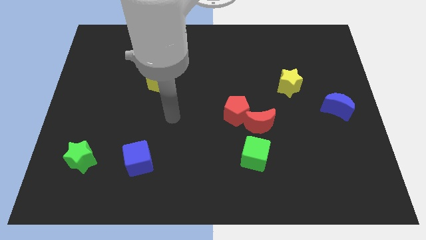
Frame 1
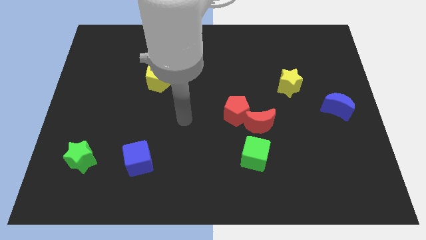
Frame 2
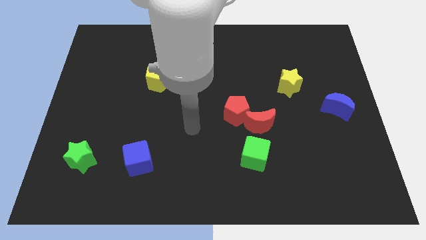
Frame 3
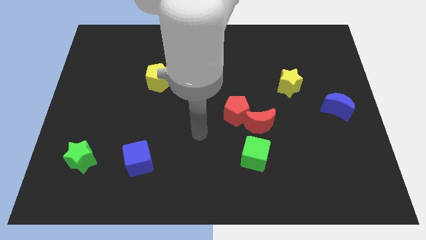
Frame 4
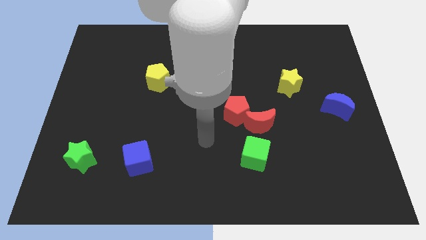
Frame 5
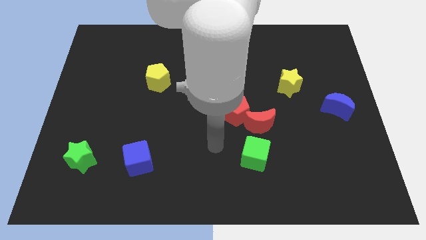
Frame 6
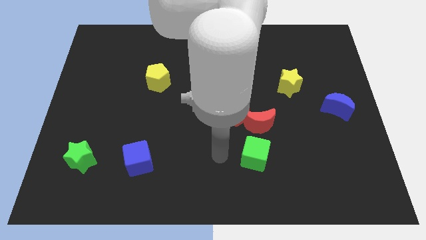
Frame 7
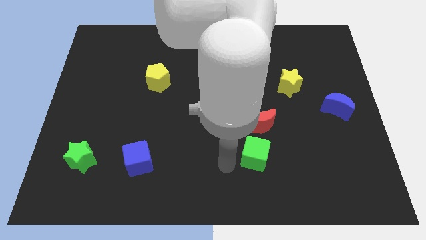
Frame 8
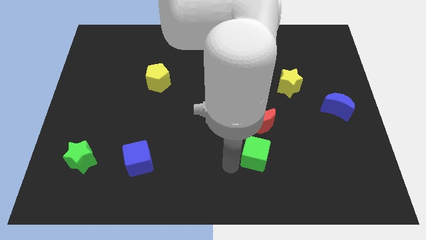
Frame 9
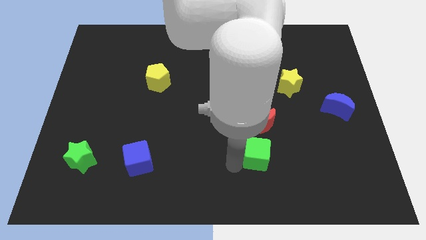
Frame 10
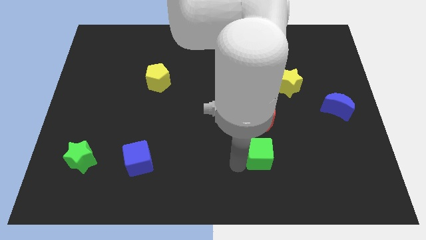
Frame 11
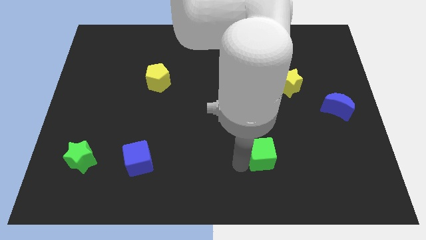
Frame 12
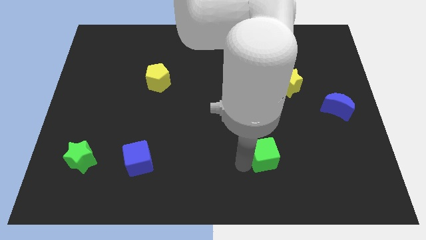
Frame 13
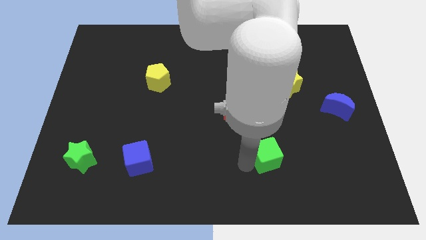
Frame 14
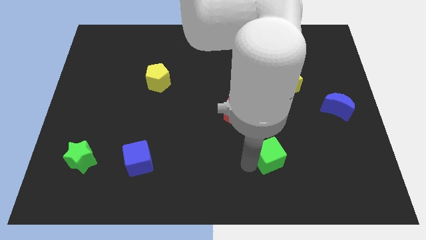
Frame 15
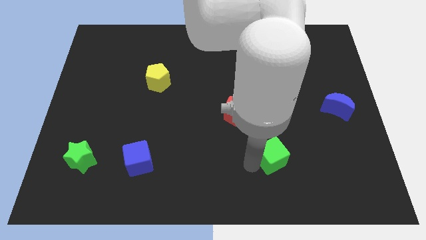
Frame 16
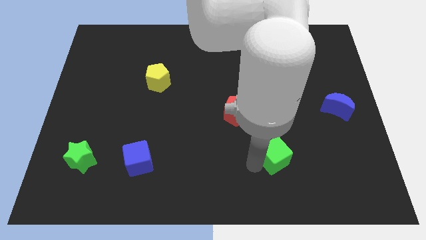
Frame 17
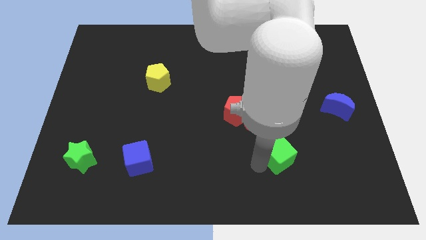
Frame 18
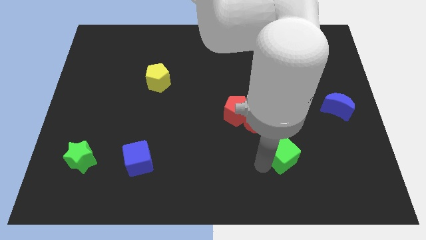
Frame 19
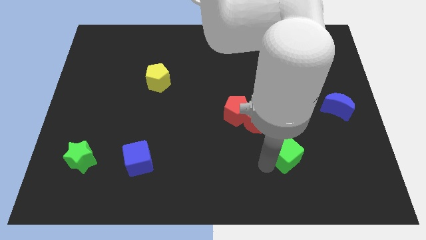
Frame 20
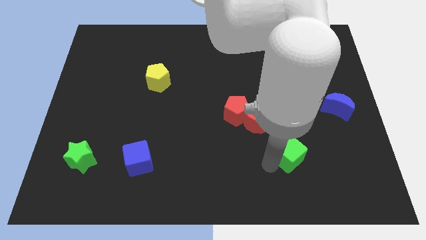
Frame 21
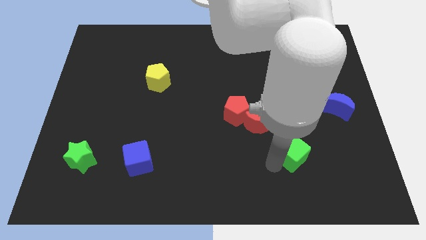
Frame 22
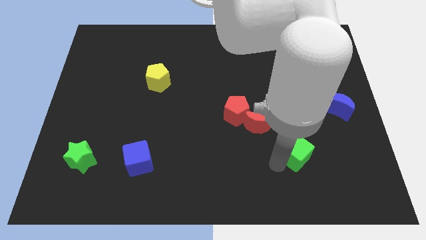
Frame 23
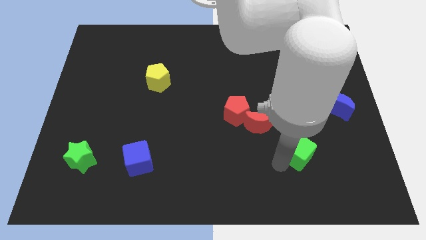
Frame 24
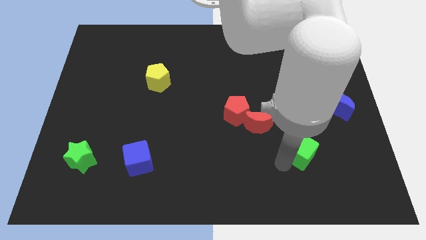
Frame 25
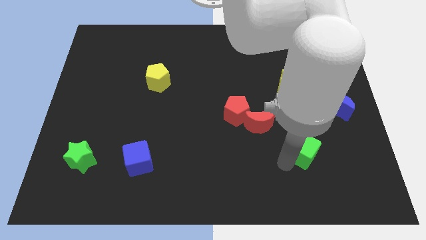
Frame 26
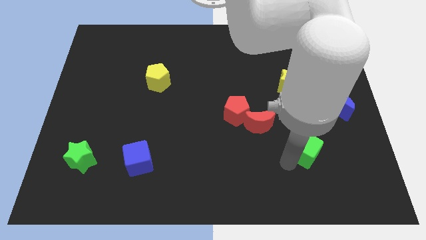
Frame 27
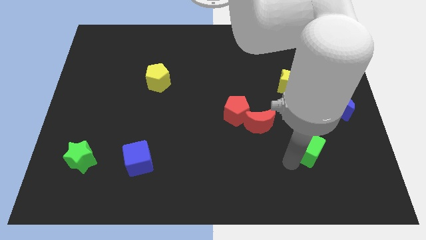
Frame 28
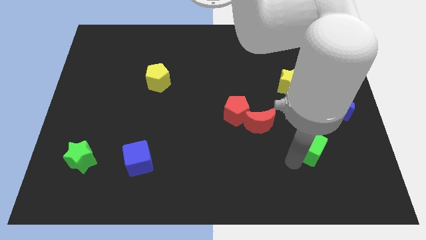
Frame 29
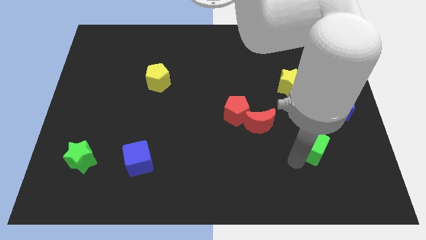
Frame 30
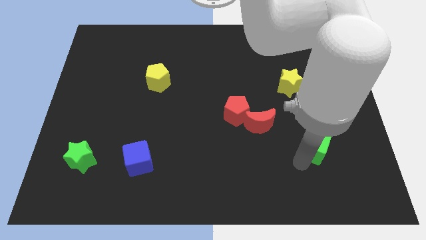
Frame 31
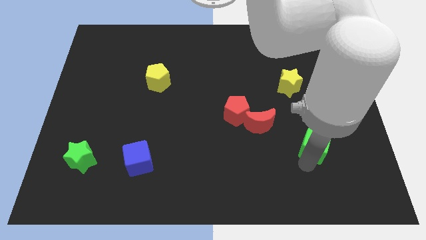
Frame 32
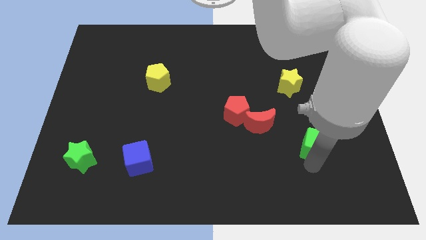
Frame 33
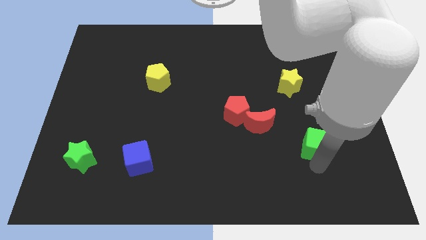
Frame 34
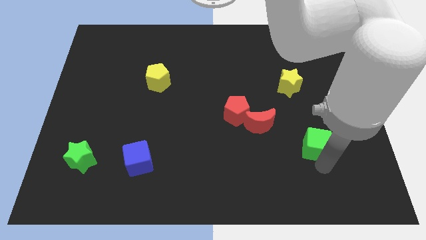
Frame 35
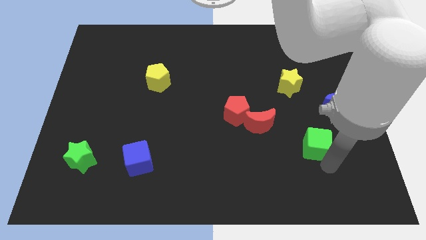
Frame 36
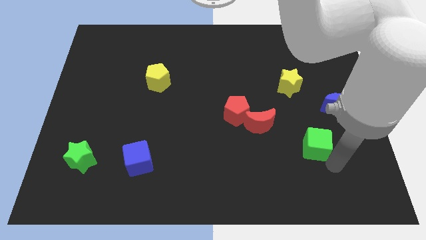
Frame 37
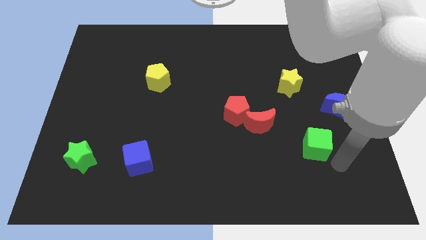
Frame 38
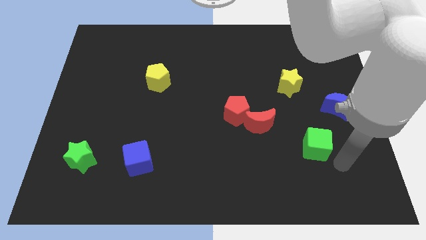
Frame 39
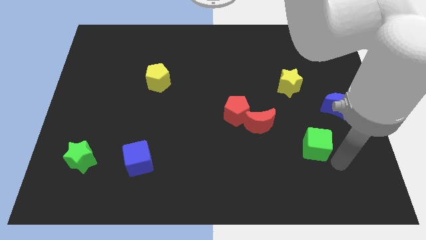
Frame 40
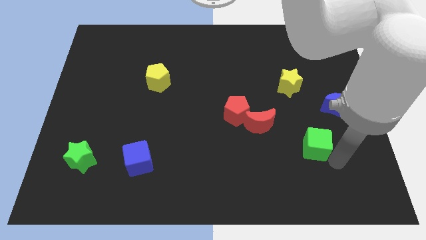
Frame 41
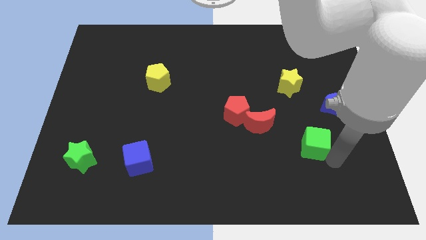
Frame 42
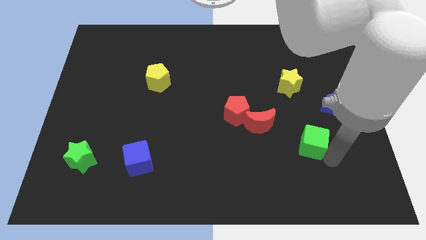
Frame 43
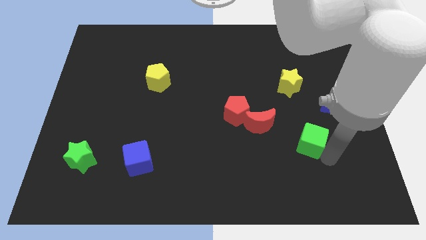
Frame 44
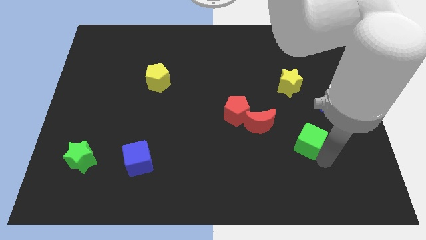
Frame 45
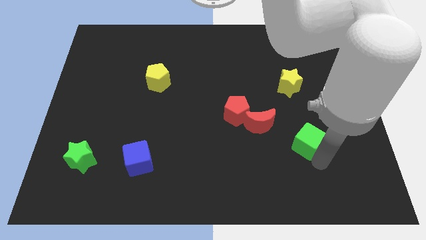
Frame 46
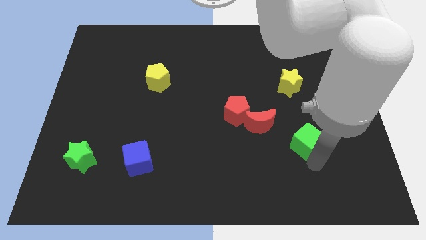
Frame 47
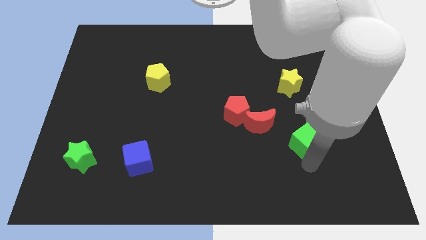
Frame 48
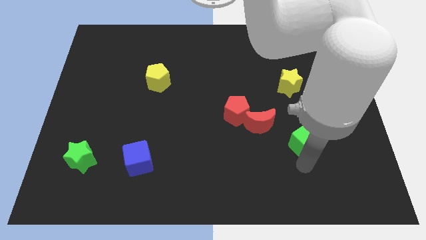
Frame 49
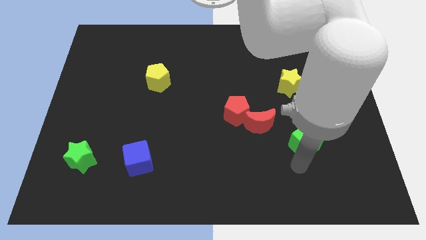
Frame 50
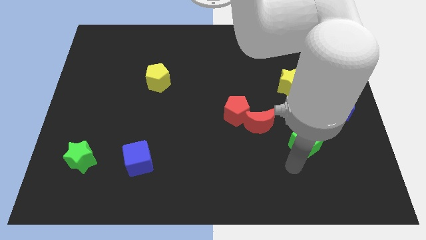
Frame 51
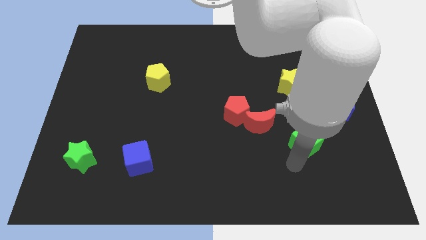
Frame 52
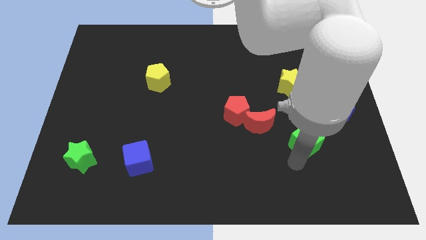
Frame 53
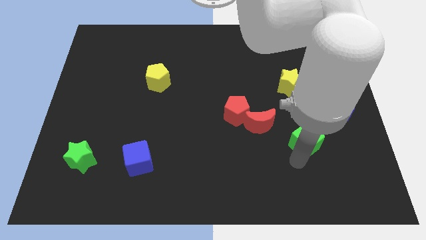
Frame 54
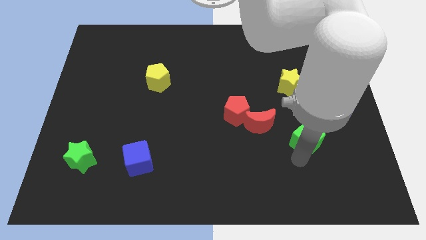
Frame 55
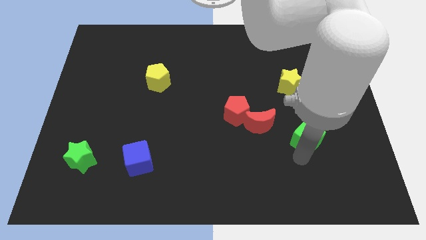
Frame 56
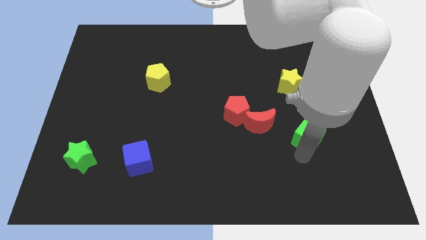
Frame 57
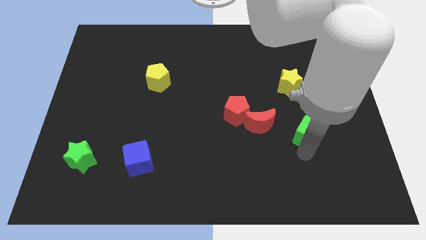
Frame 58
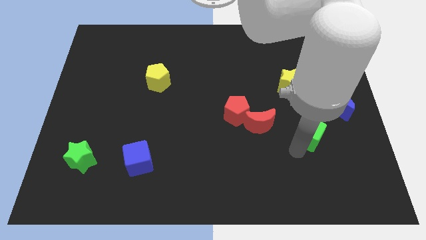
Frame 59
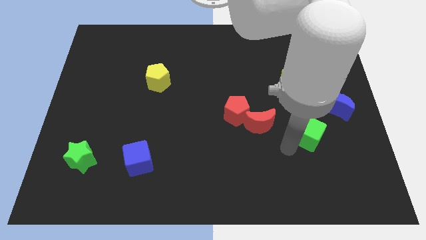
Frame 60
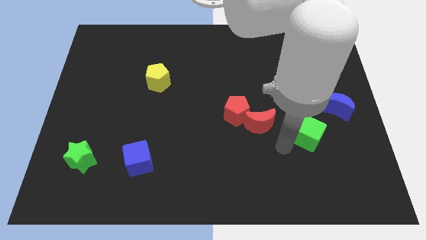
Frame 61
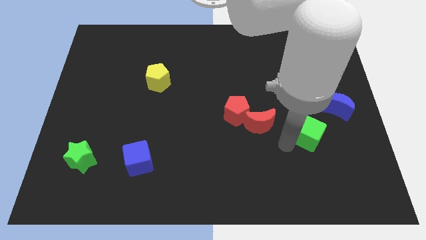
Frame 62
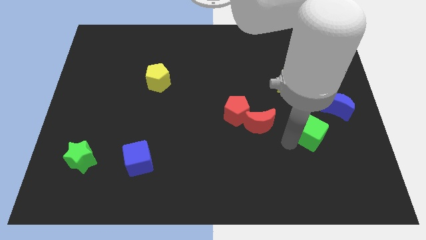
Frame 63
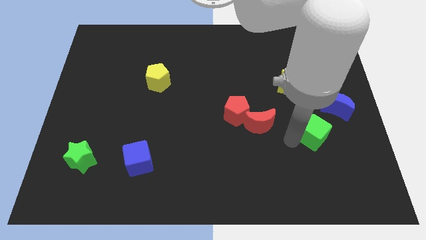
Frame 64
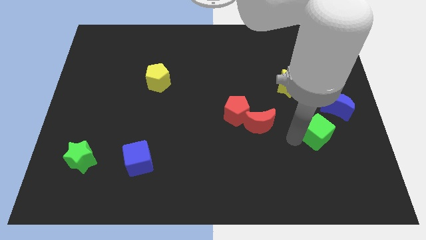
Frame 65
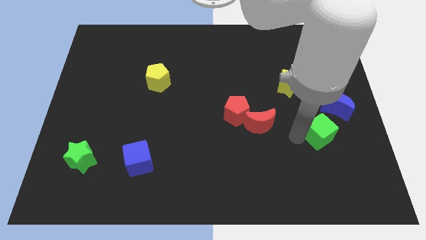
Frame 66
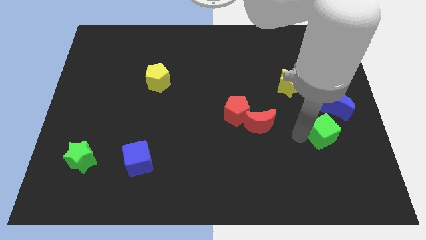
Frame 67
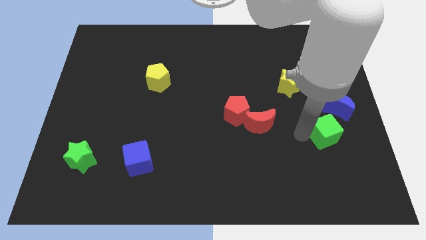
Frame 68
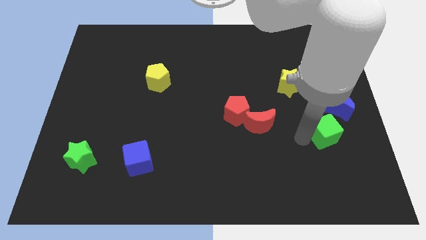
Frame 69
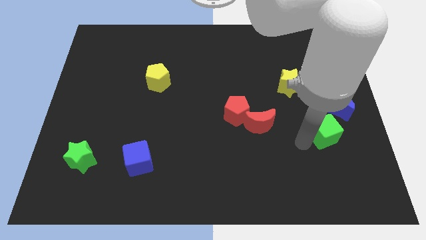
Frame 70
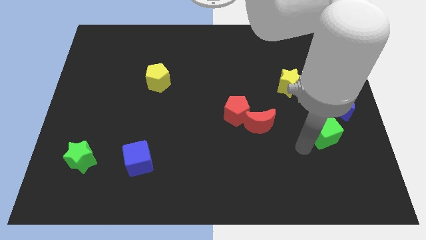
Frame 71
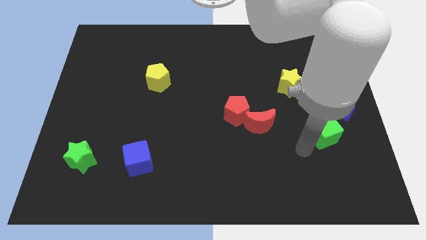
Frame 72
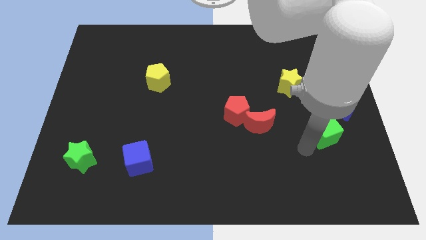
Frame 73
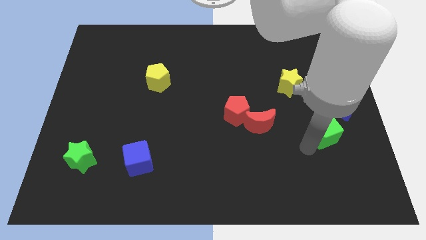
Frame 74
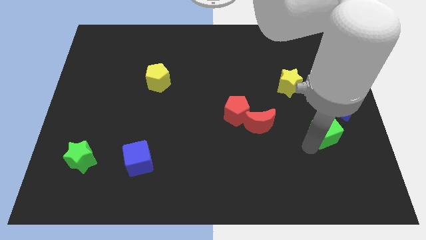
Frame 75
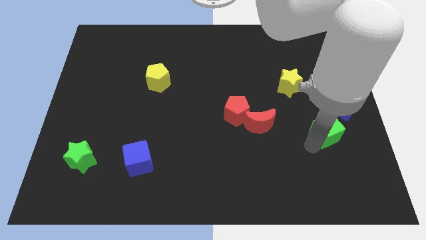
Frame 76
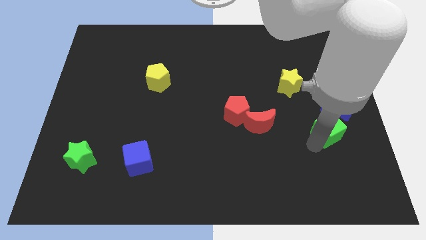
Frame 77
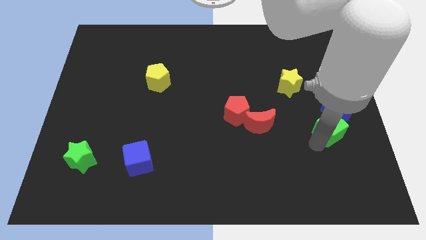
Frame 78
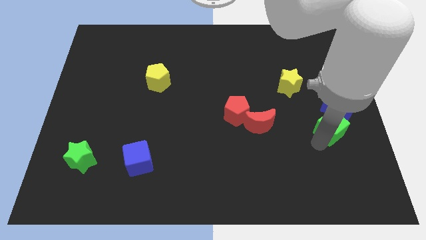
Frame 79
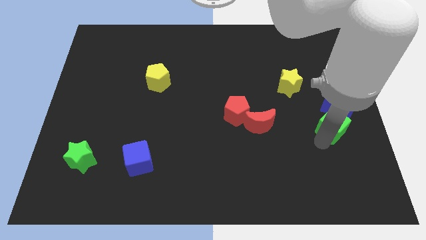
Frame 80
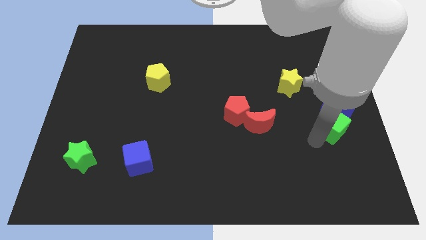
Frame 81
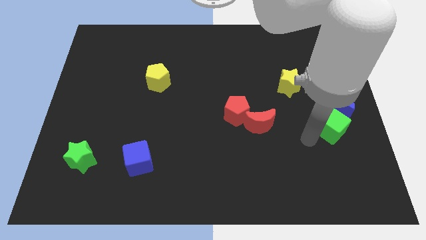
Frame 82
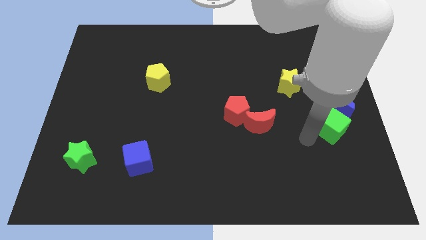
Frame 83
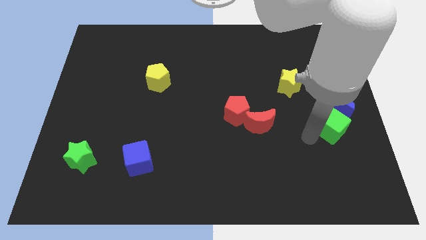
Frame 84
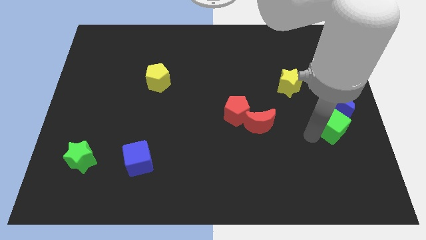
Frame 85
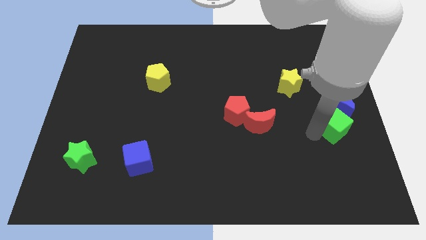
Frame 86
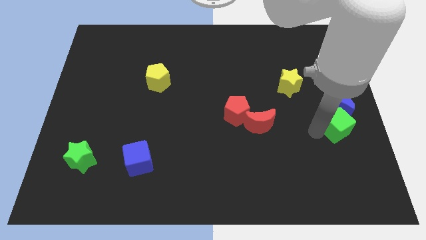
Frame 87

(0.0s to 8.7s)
put the green cube to the center right
